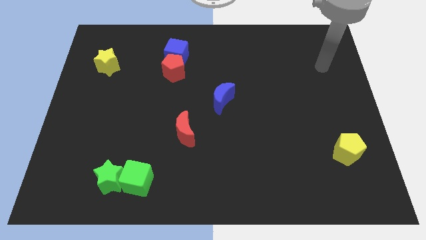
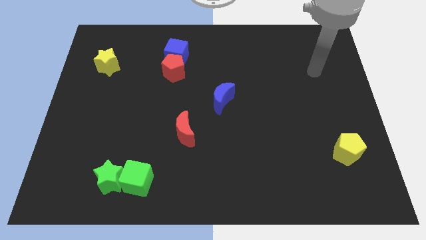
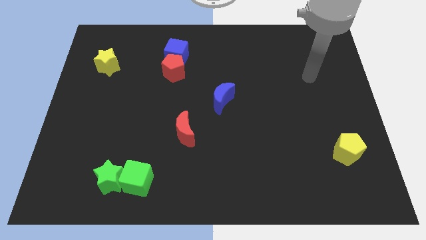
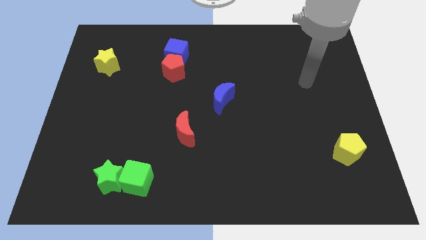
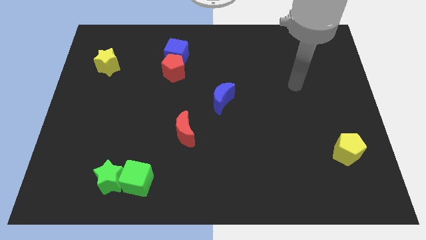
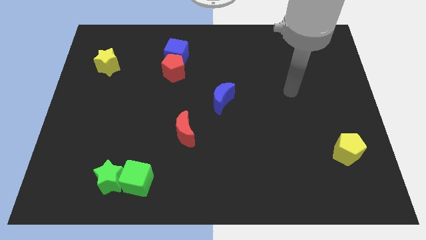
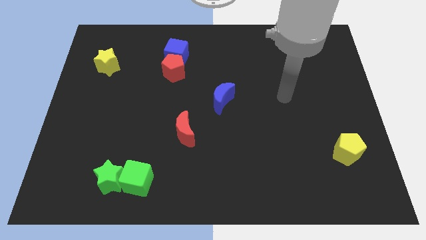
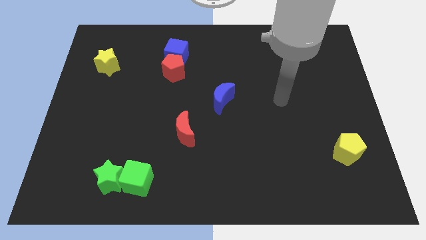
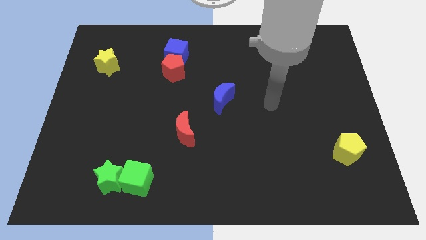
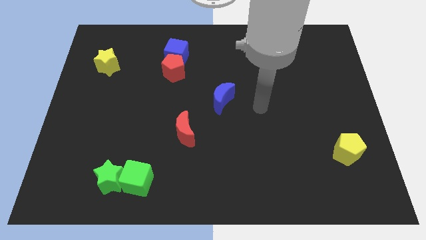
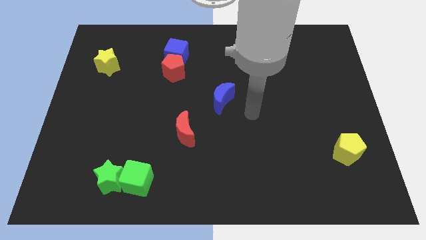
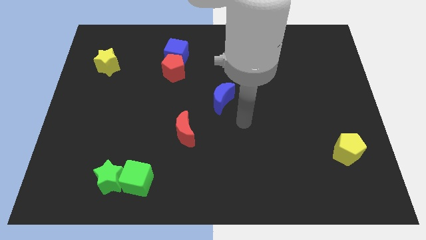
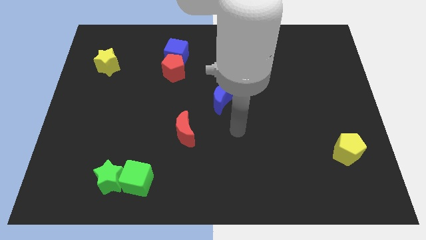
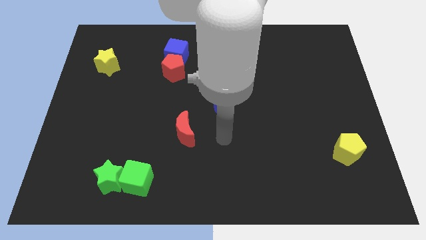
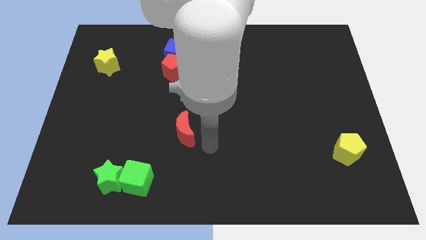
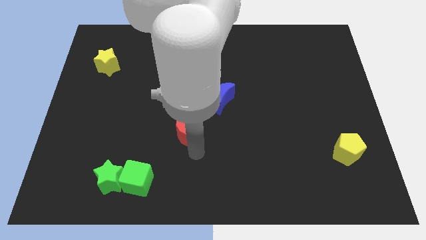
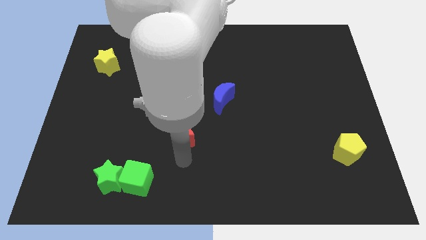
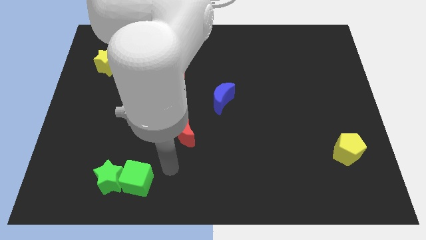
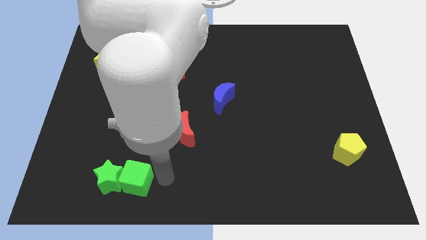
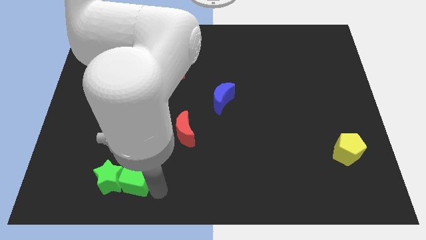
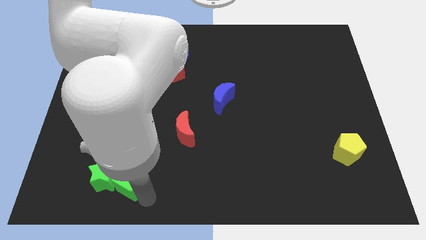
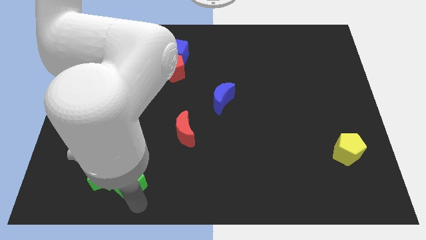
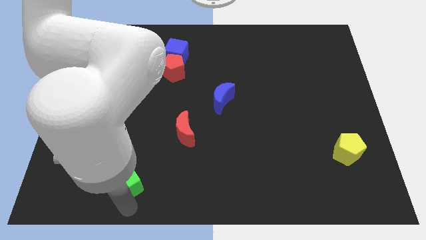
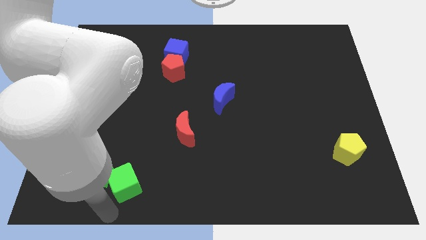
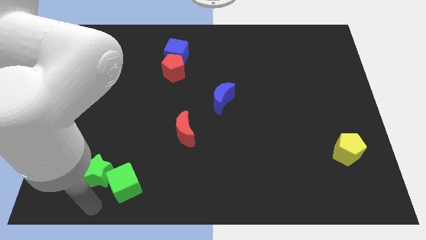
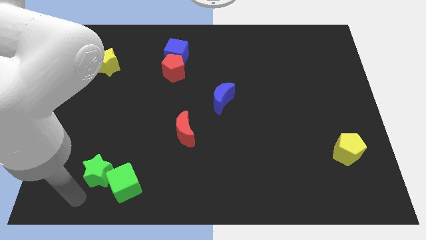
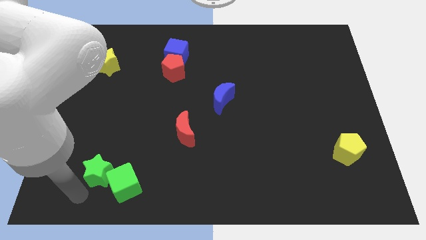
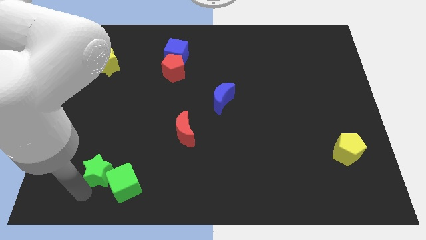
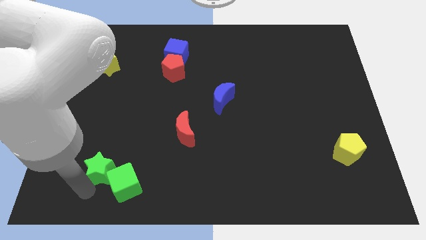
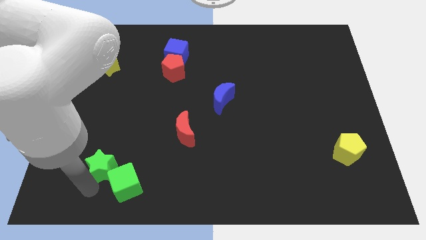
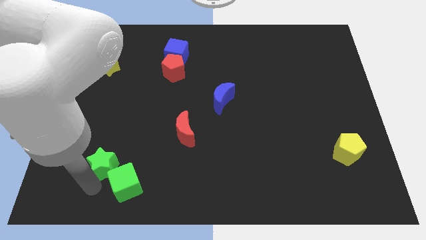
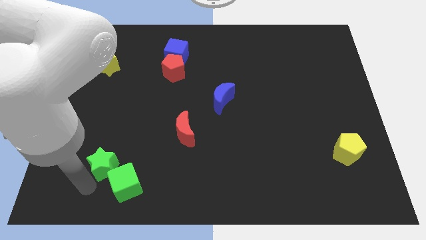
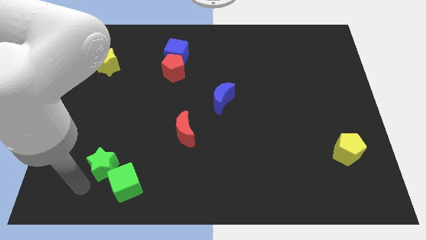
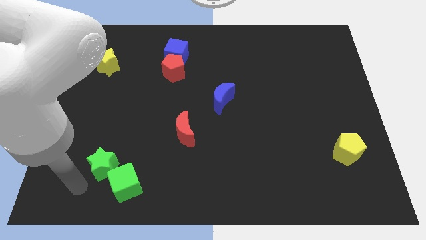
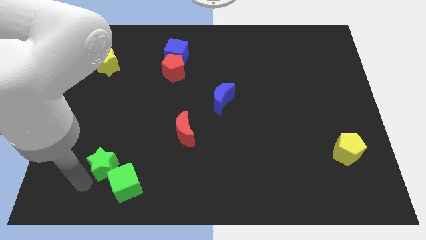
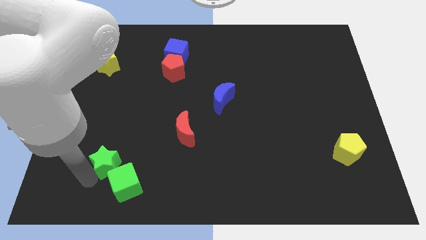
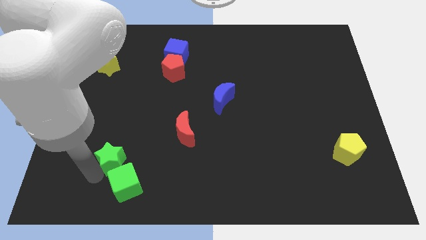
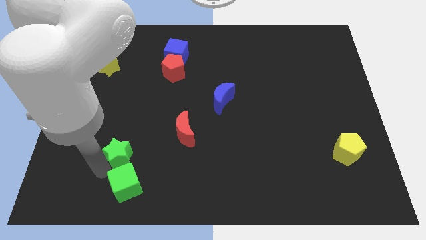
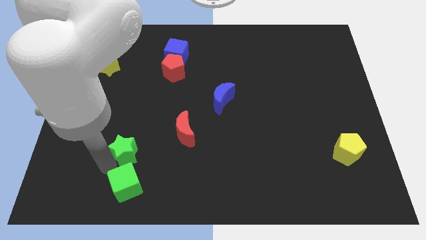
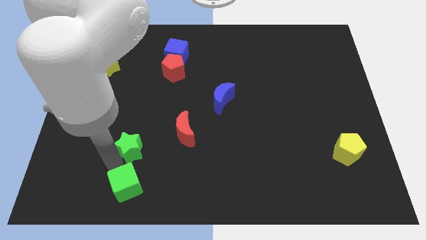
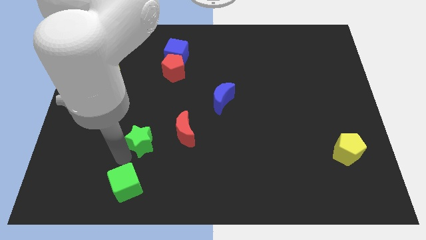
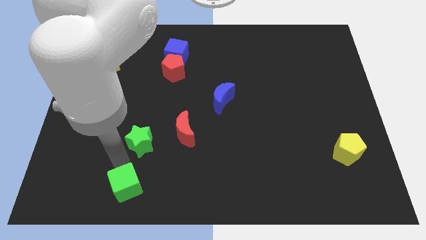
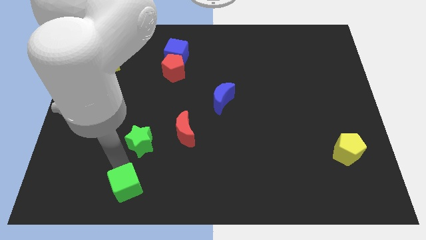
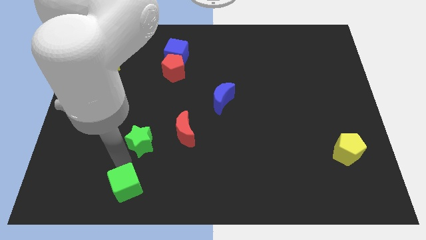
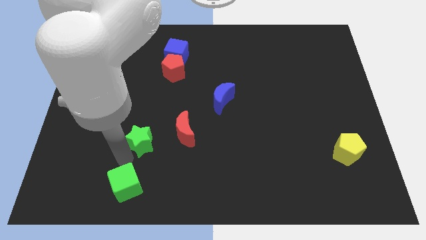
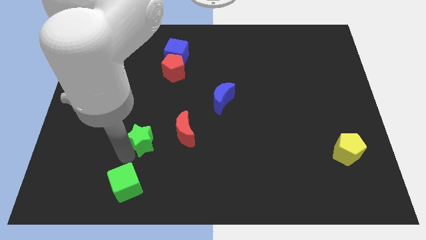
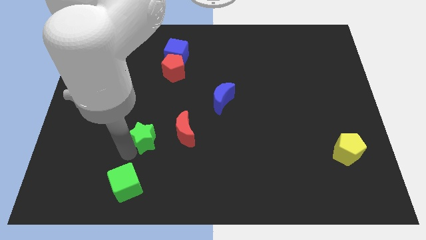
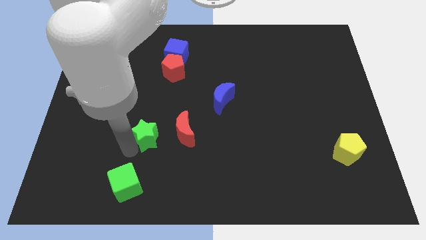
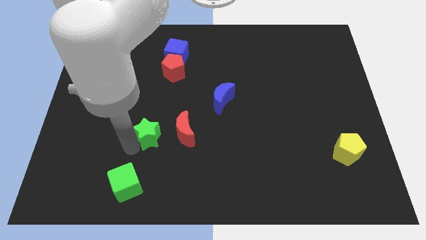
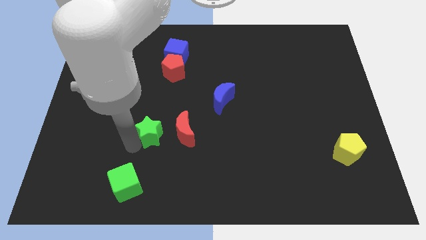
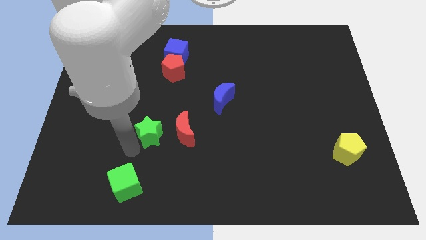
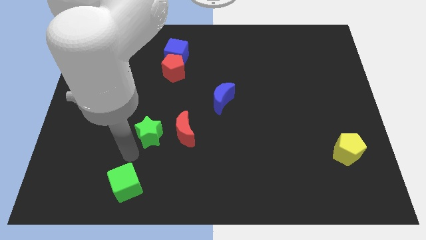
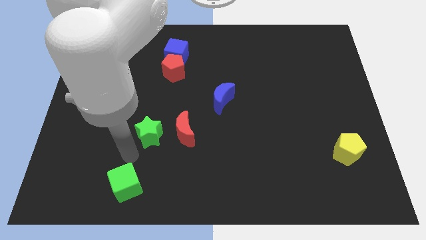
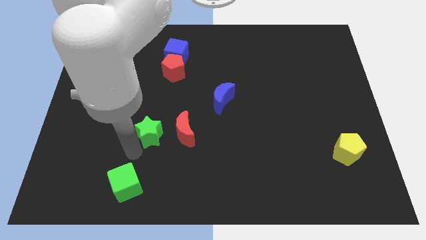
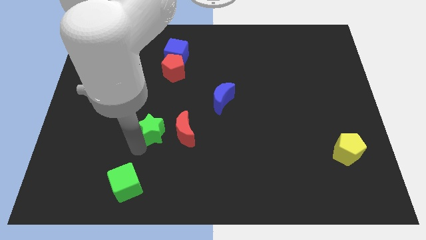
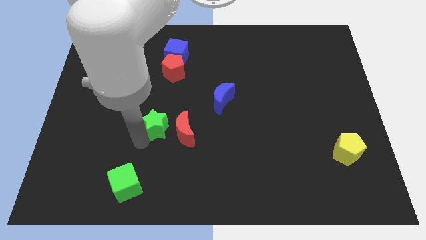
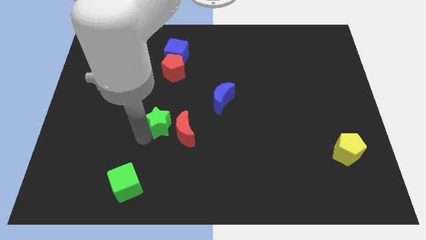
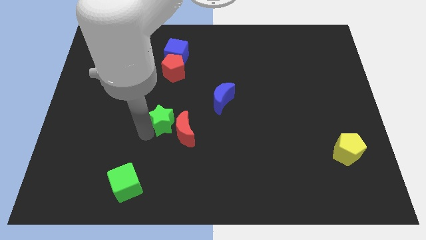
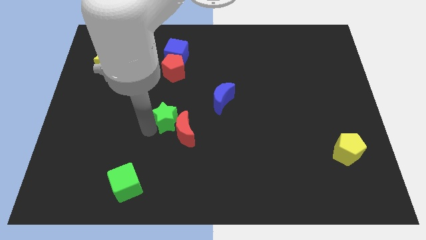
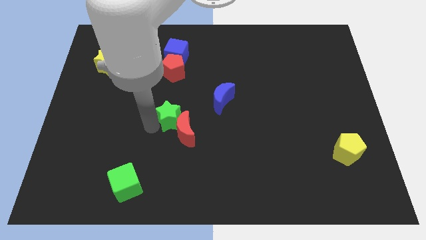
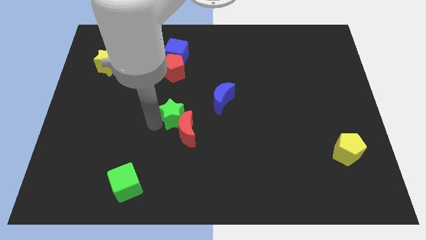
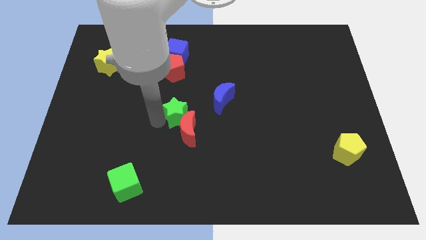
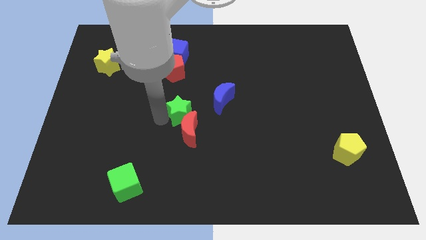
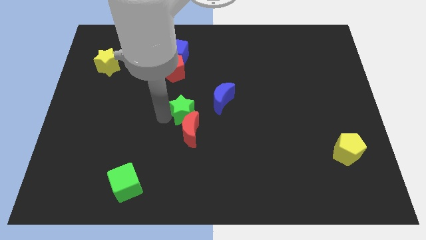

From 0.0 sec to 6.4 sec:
put the green star to the top right of the red moon

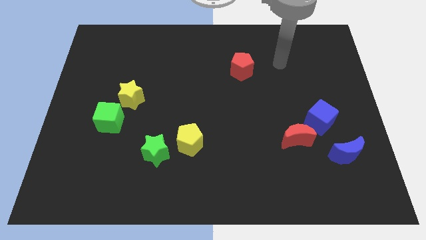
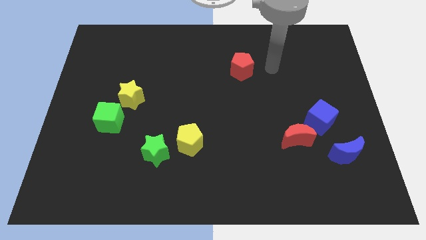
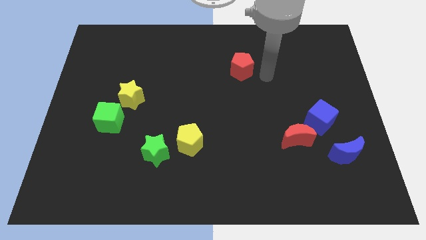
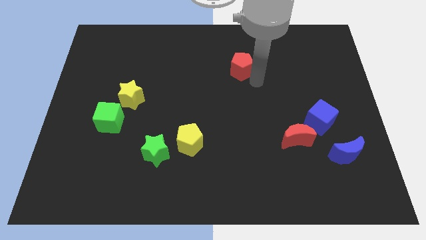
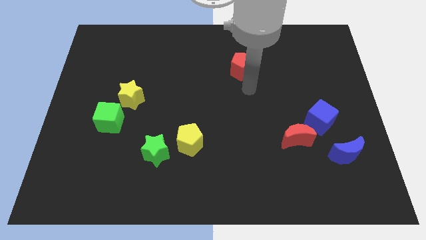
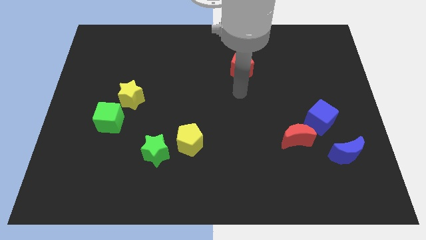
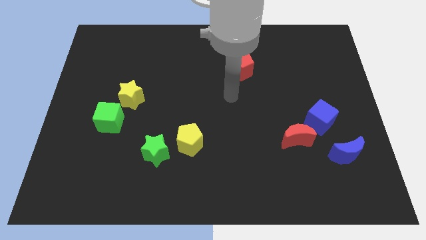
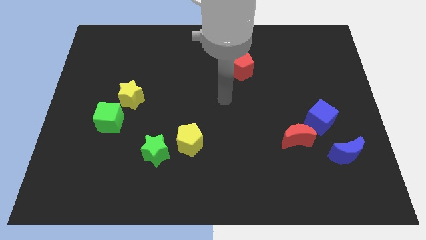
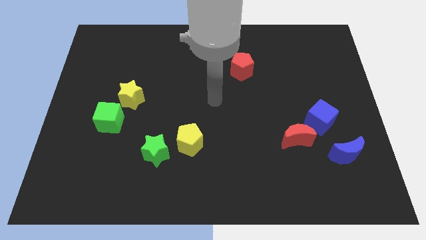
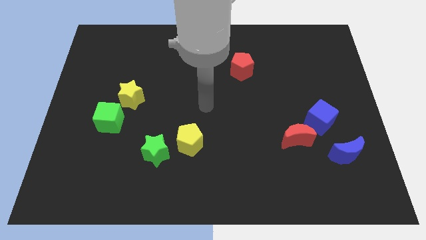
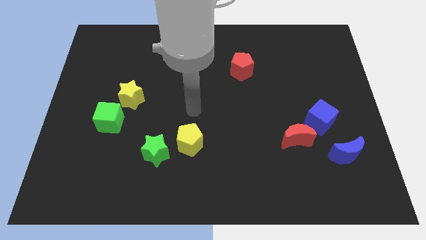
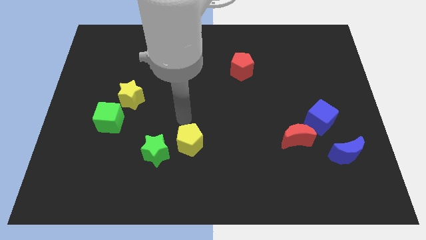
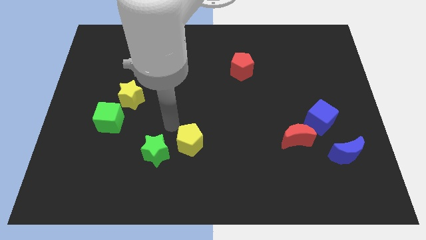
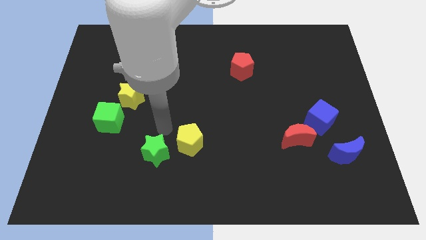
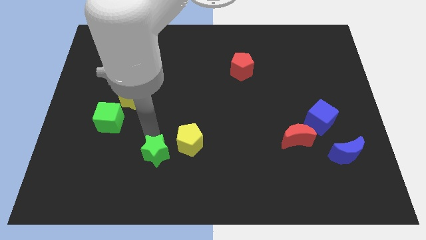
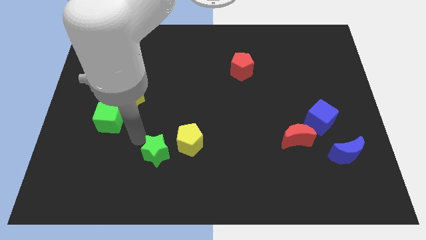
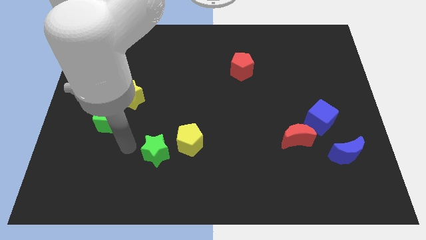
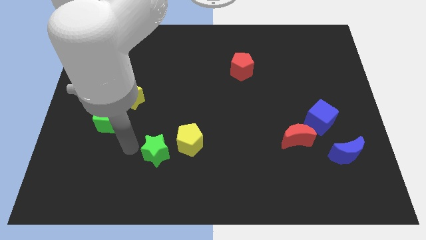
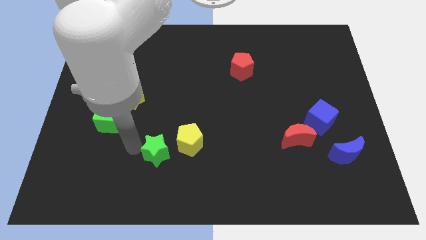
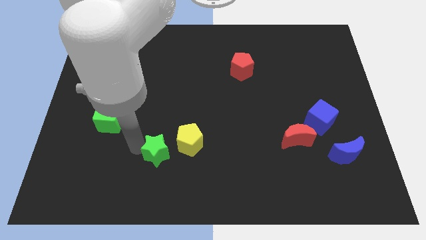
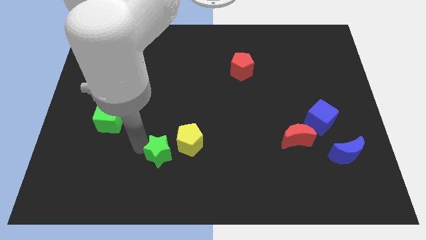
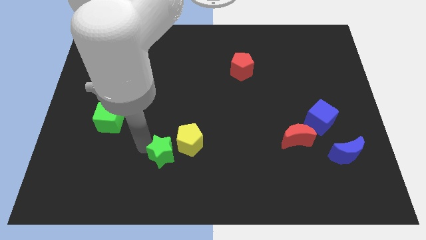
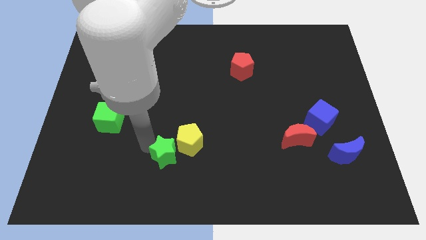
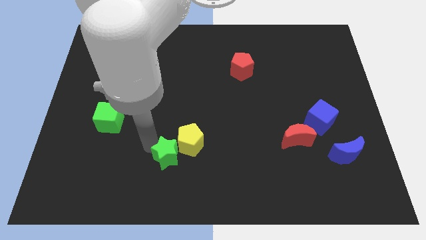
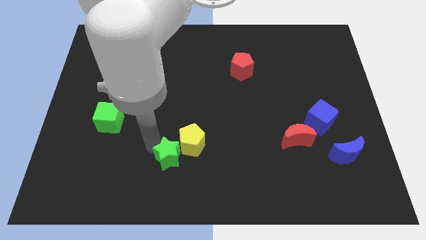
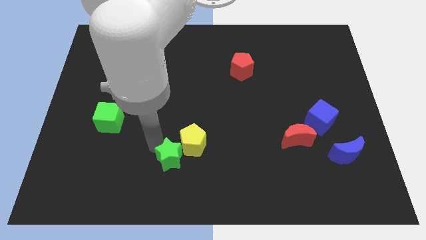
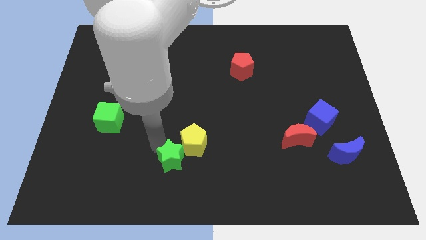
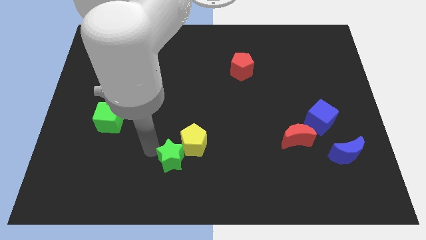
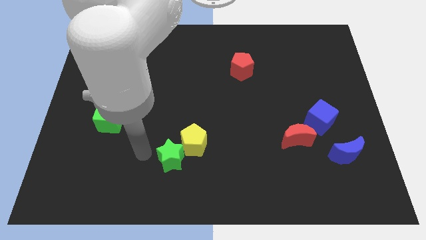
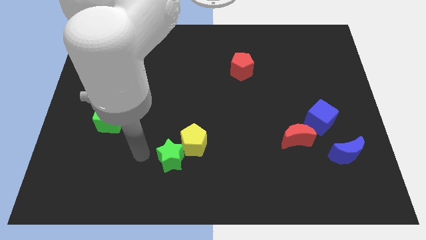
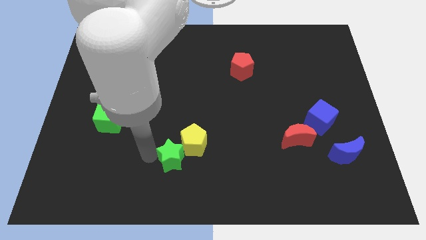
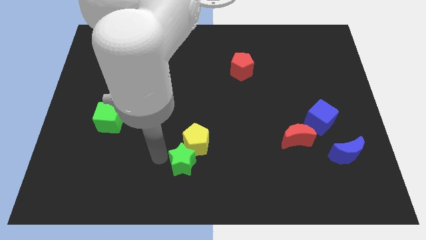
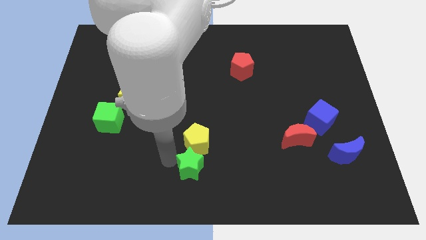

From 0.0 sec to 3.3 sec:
slide the green star diagonally down and to the right of the yellow pentagon
